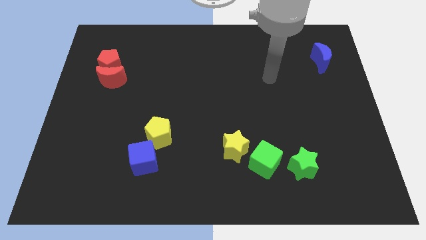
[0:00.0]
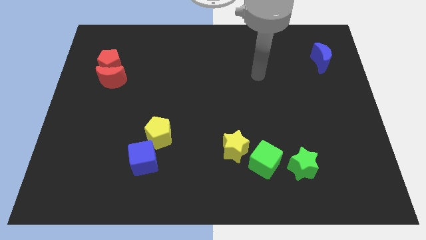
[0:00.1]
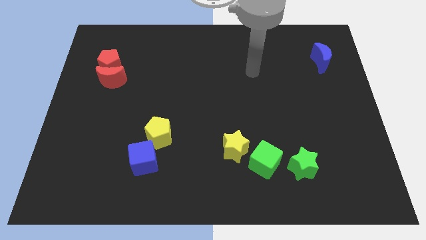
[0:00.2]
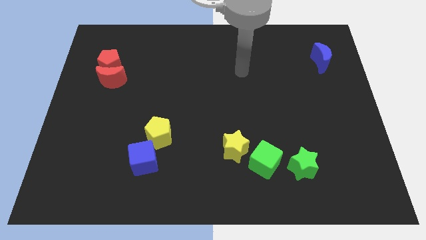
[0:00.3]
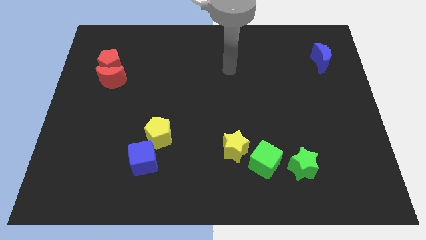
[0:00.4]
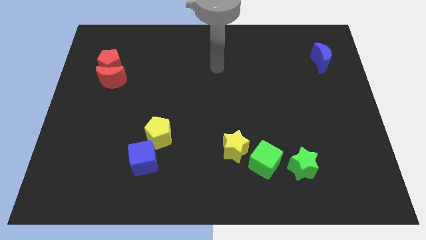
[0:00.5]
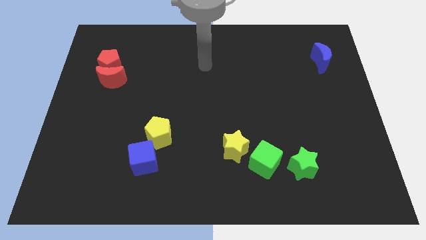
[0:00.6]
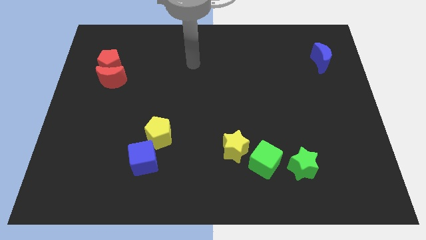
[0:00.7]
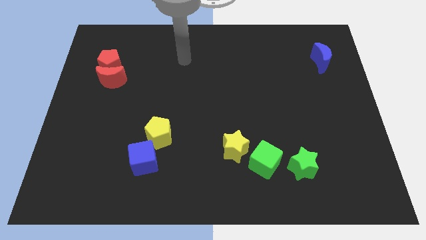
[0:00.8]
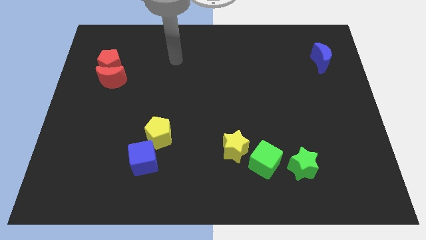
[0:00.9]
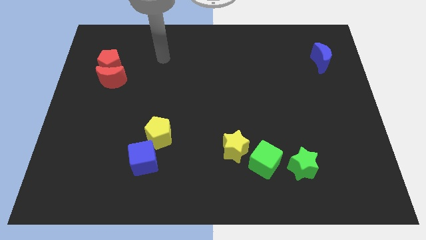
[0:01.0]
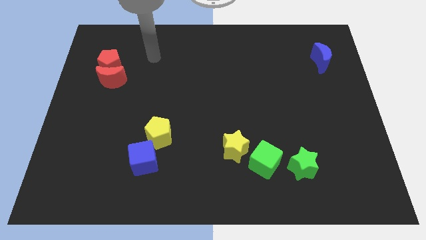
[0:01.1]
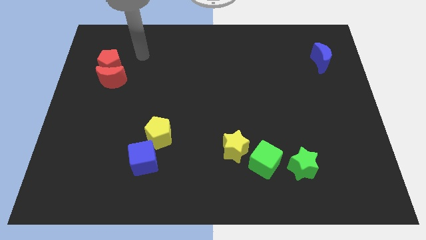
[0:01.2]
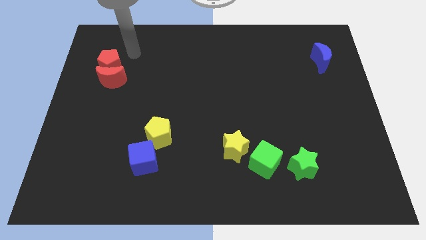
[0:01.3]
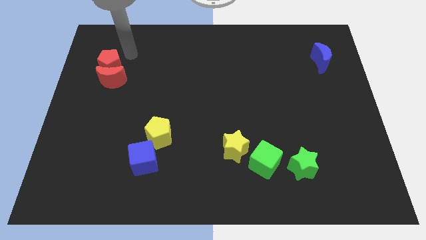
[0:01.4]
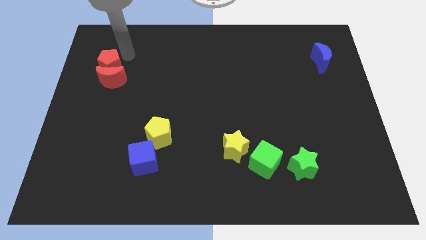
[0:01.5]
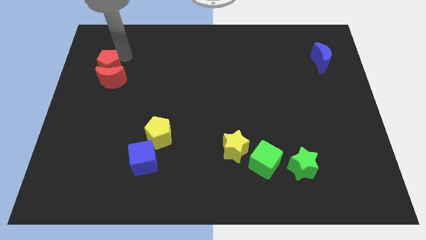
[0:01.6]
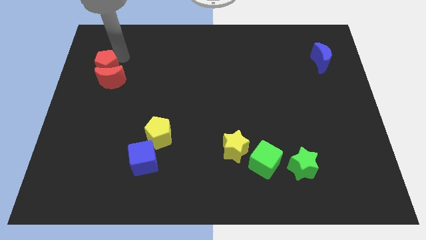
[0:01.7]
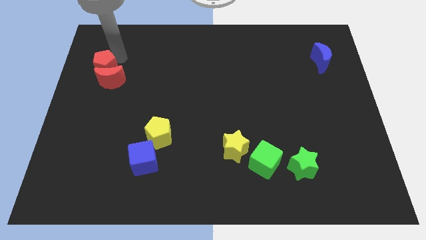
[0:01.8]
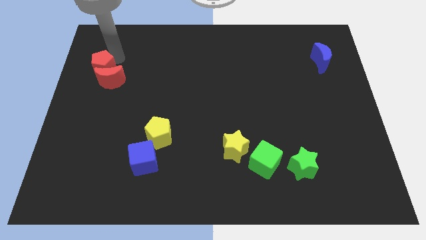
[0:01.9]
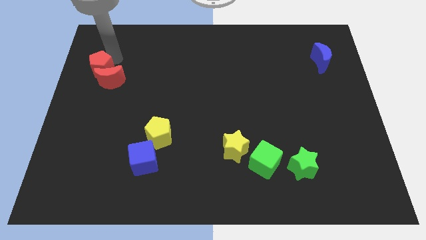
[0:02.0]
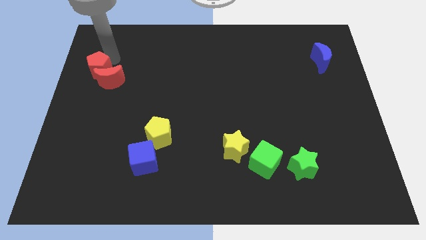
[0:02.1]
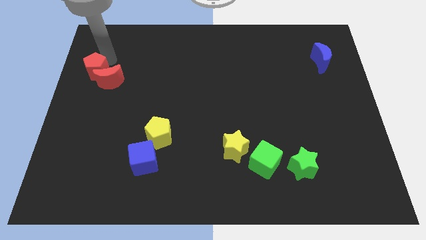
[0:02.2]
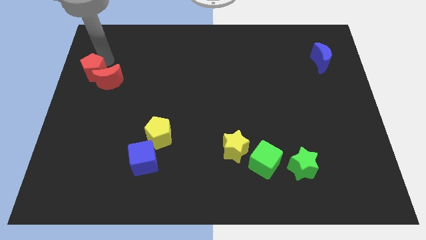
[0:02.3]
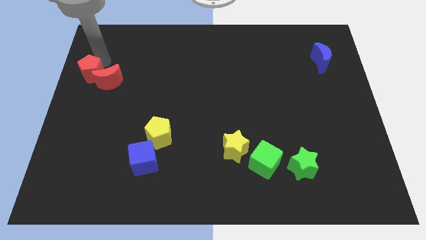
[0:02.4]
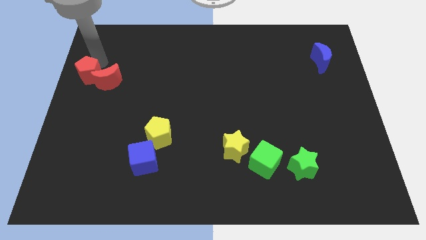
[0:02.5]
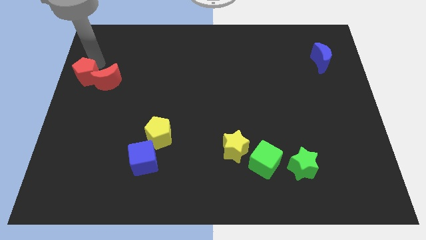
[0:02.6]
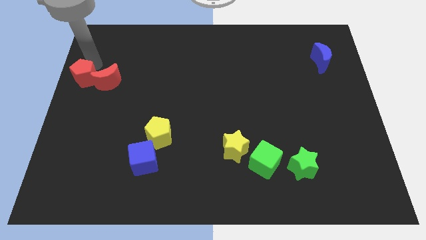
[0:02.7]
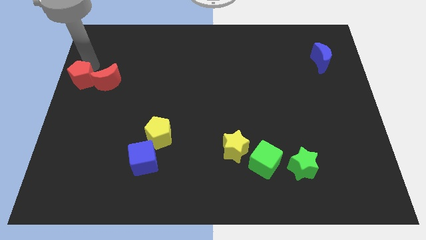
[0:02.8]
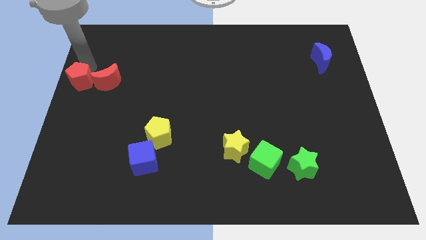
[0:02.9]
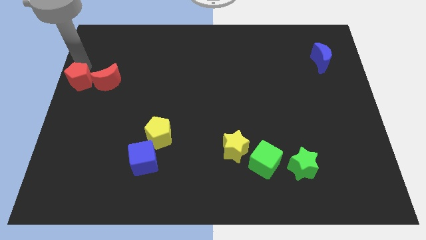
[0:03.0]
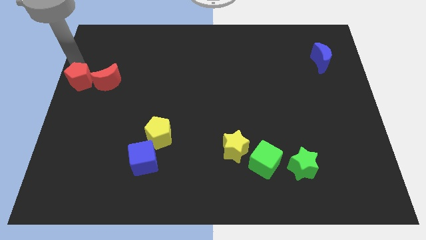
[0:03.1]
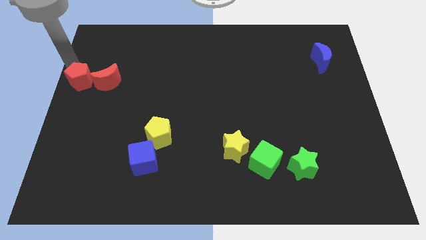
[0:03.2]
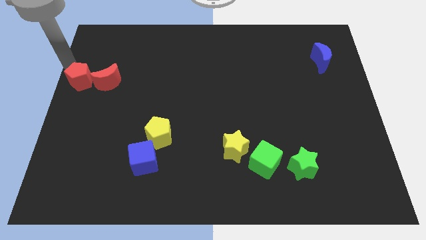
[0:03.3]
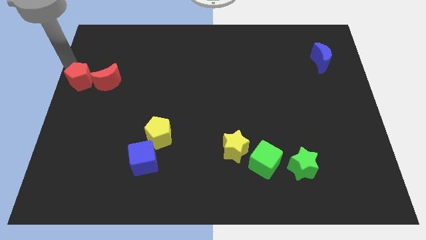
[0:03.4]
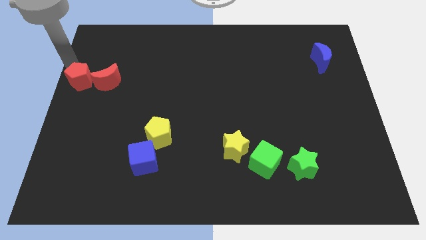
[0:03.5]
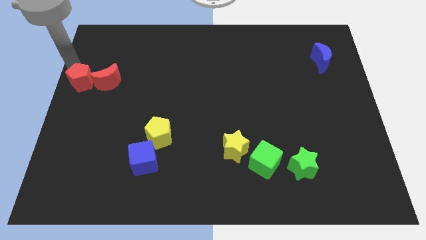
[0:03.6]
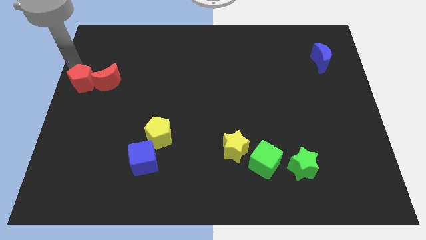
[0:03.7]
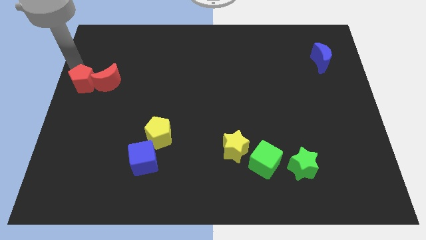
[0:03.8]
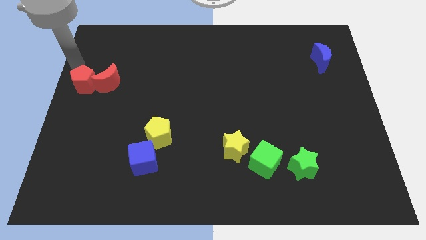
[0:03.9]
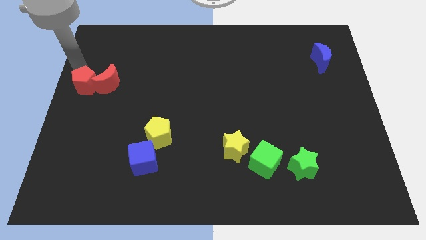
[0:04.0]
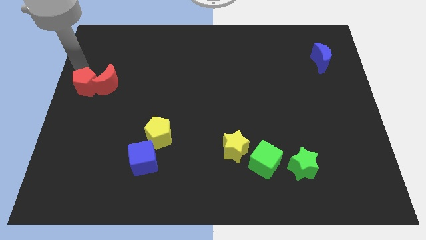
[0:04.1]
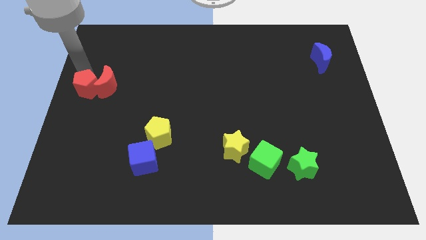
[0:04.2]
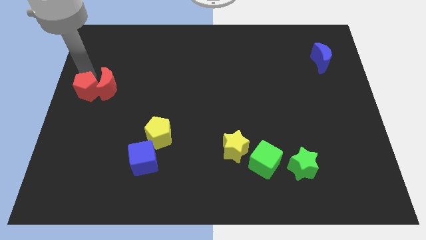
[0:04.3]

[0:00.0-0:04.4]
push the red pentagon a little down

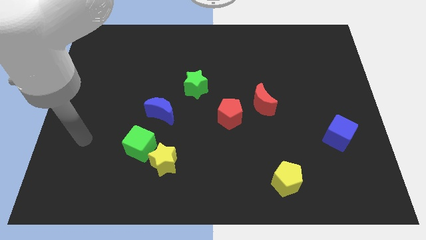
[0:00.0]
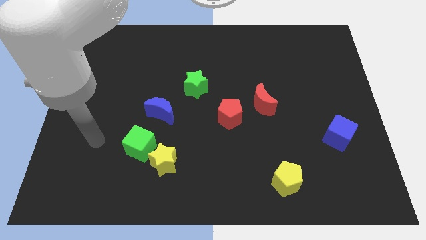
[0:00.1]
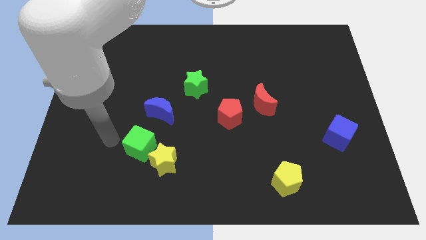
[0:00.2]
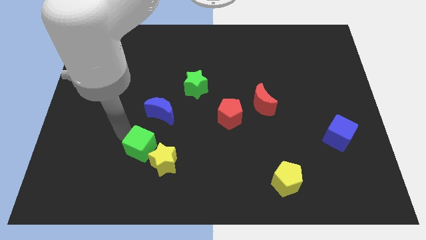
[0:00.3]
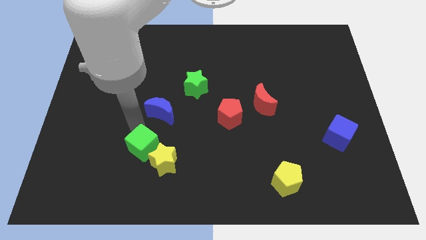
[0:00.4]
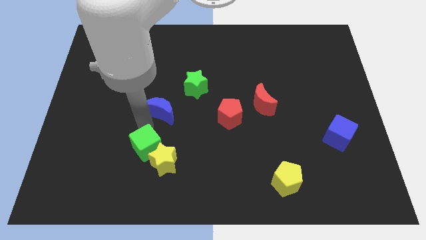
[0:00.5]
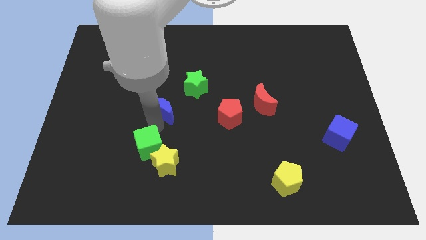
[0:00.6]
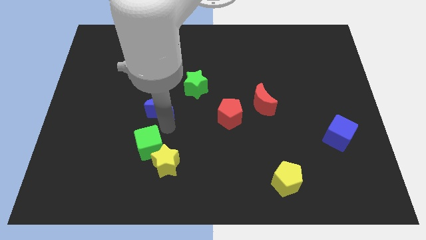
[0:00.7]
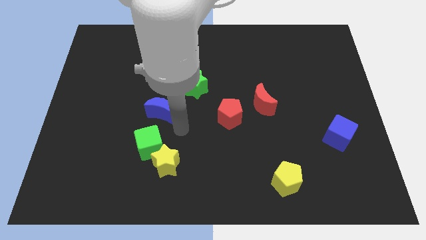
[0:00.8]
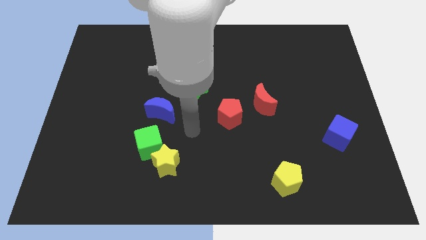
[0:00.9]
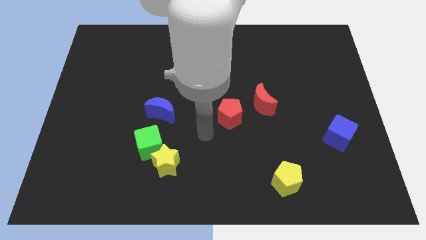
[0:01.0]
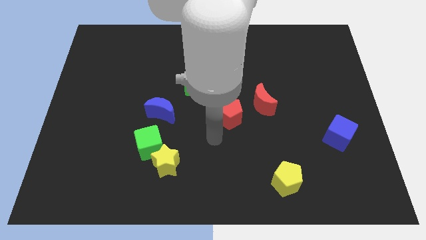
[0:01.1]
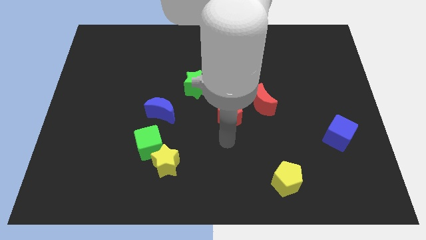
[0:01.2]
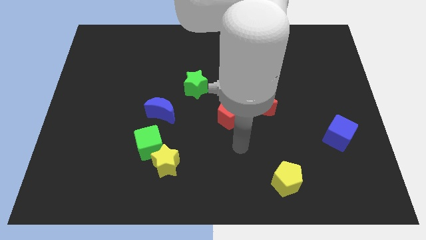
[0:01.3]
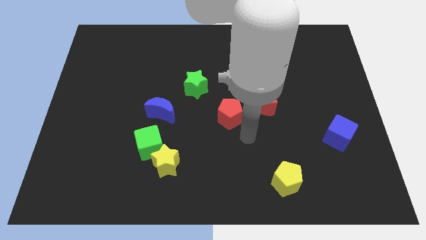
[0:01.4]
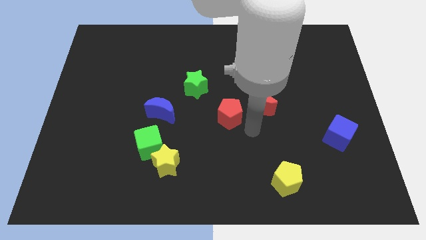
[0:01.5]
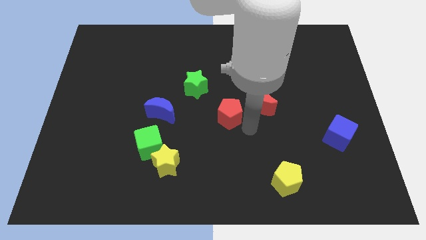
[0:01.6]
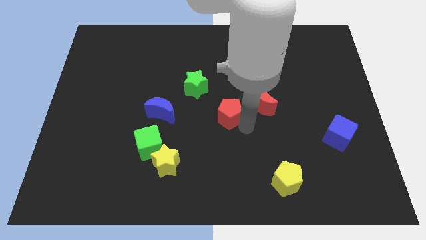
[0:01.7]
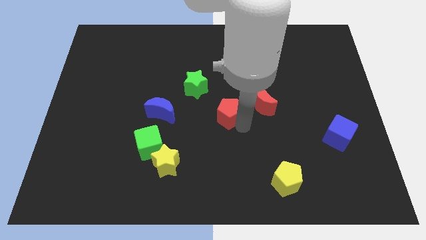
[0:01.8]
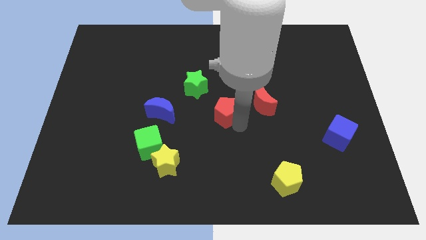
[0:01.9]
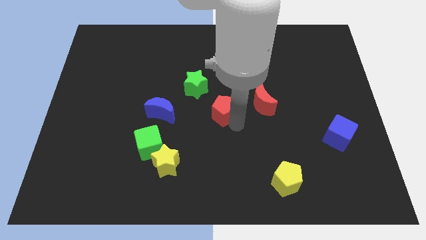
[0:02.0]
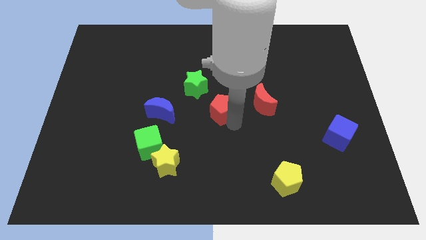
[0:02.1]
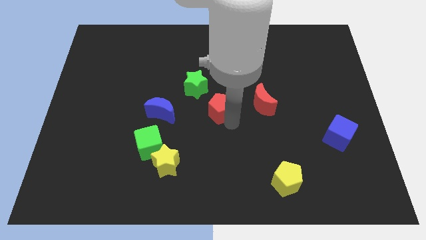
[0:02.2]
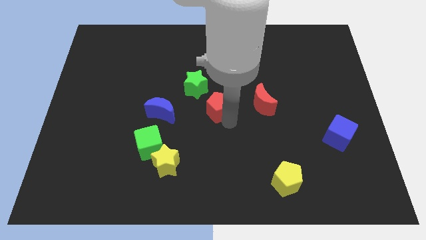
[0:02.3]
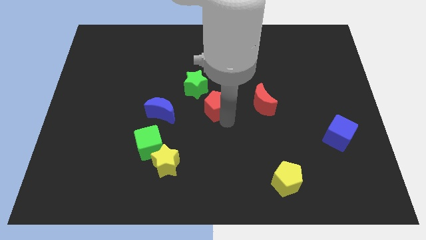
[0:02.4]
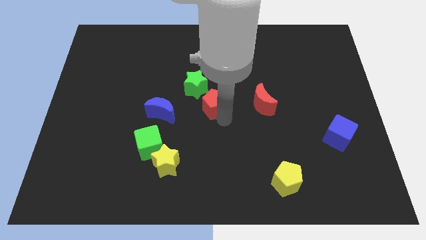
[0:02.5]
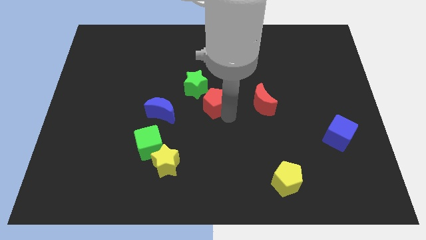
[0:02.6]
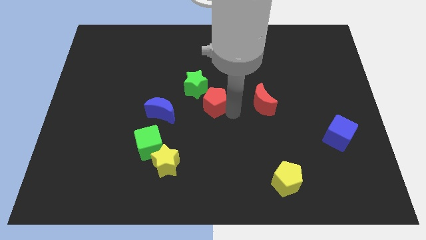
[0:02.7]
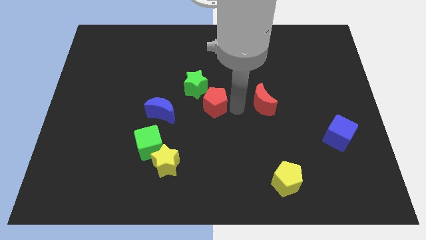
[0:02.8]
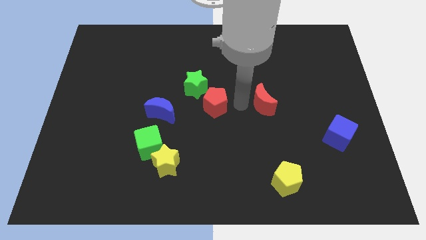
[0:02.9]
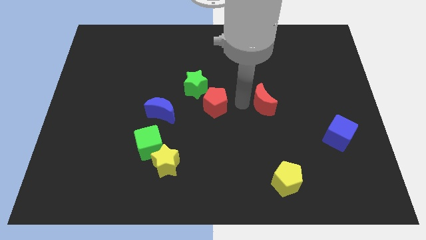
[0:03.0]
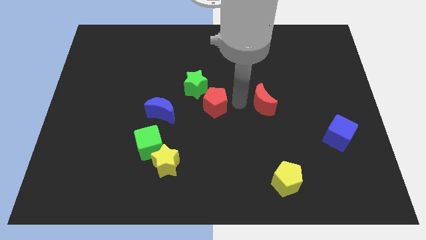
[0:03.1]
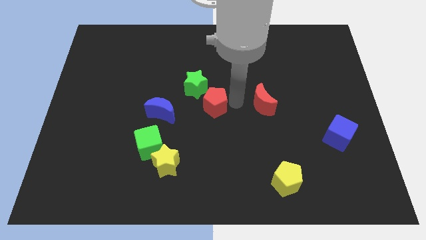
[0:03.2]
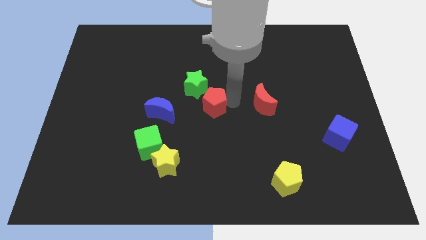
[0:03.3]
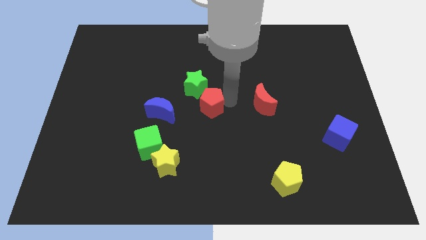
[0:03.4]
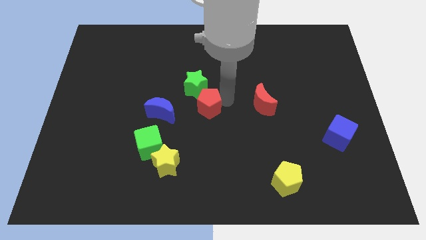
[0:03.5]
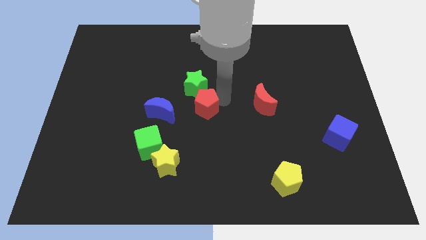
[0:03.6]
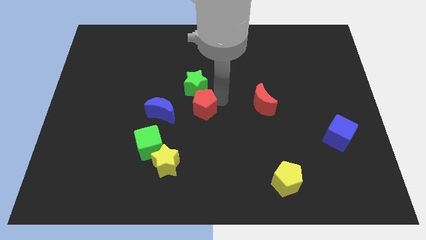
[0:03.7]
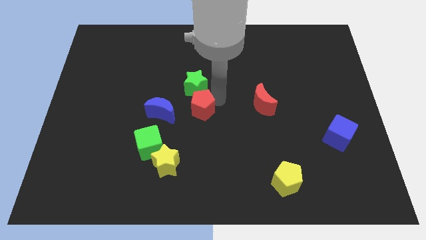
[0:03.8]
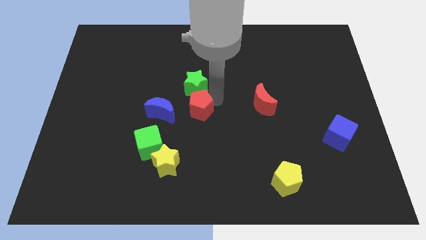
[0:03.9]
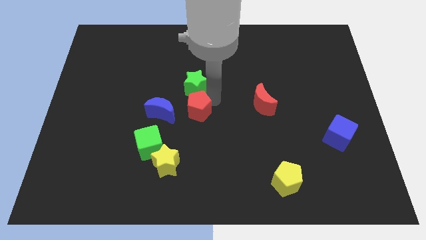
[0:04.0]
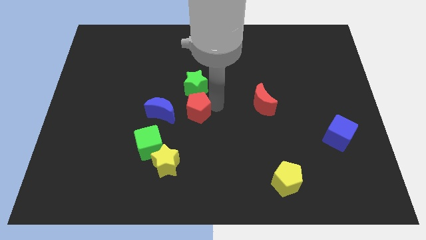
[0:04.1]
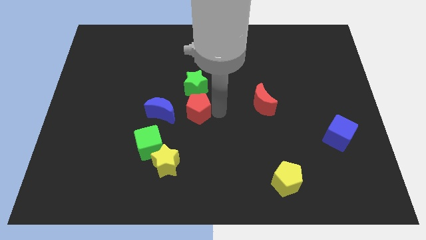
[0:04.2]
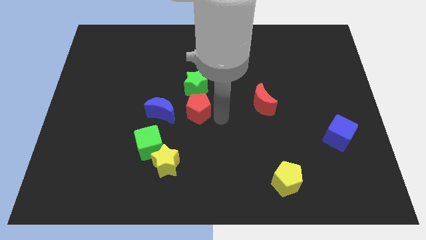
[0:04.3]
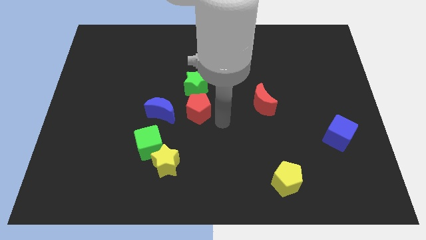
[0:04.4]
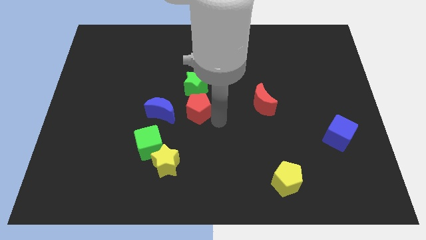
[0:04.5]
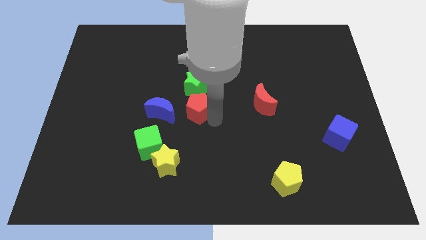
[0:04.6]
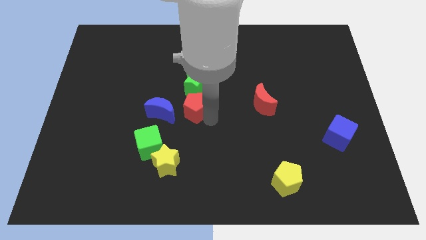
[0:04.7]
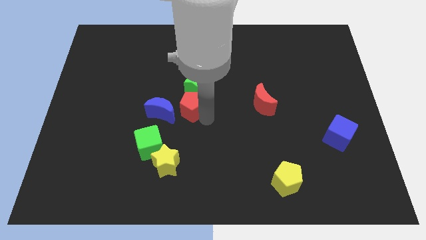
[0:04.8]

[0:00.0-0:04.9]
move the red pentagon a bit upwards and left diagonally
